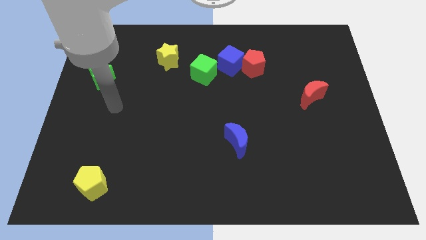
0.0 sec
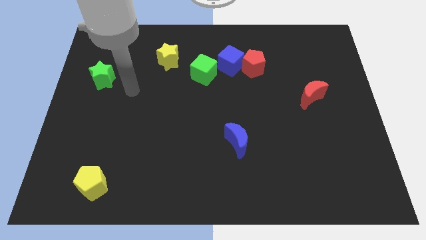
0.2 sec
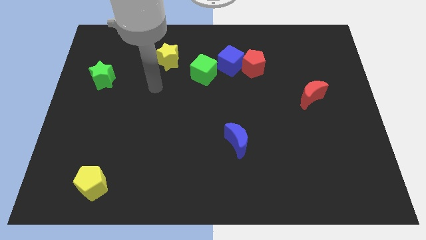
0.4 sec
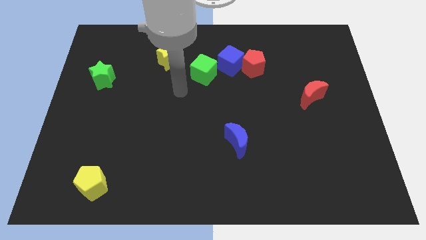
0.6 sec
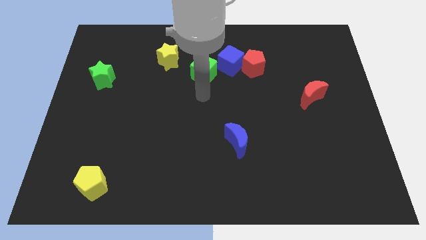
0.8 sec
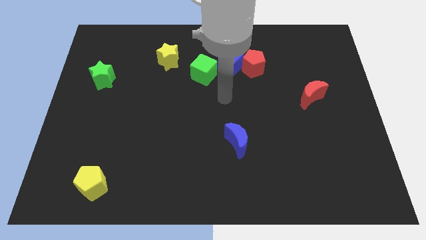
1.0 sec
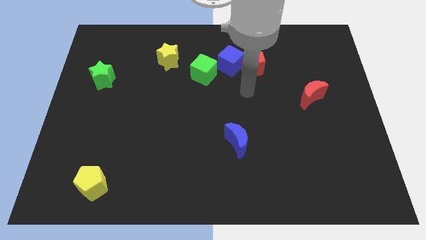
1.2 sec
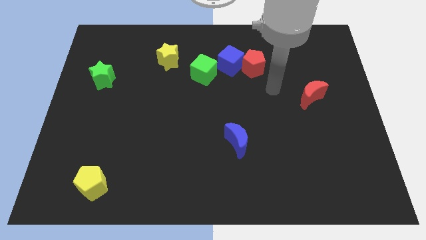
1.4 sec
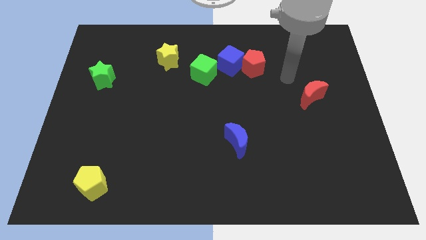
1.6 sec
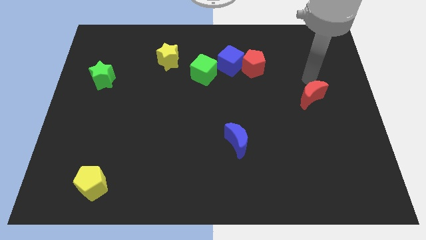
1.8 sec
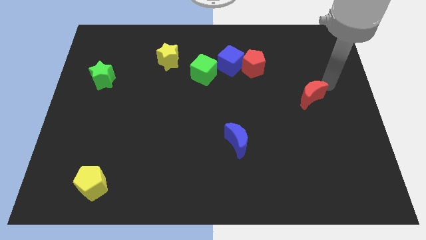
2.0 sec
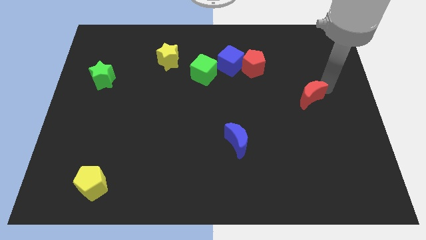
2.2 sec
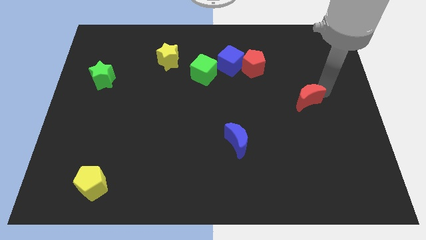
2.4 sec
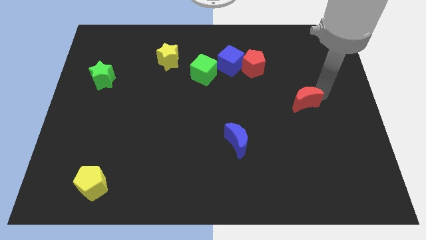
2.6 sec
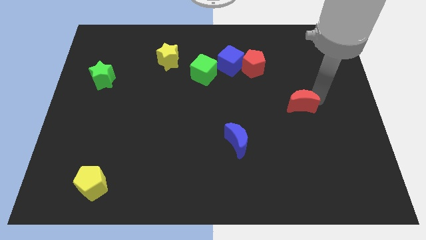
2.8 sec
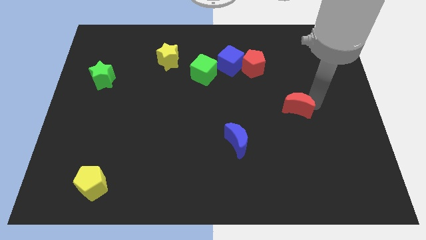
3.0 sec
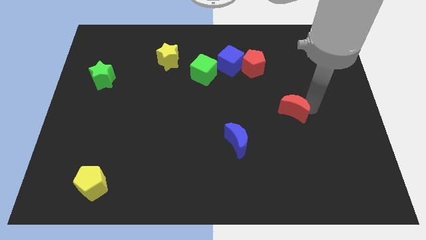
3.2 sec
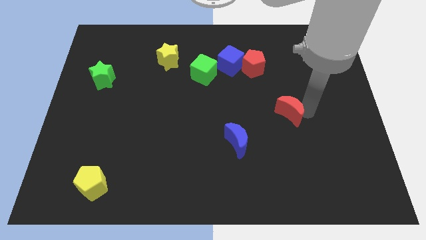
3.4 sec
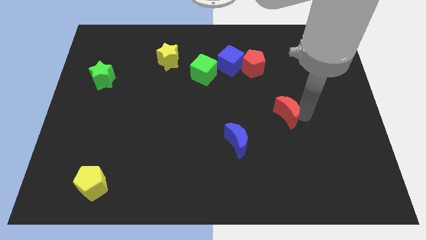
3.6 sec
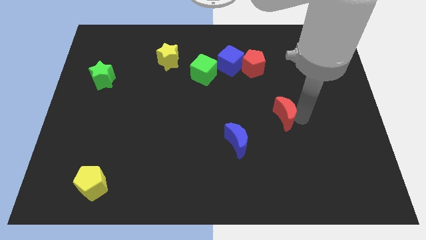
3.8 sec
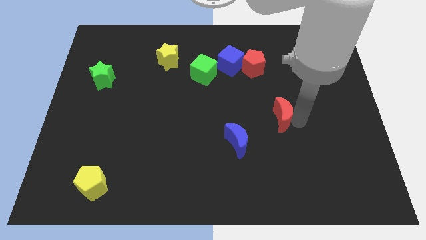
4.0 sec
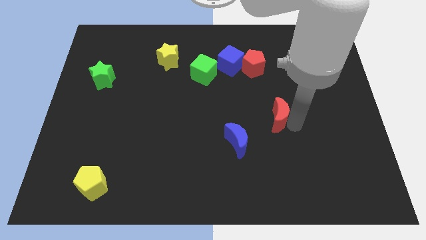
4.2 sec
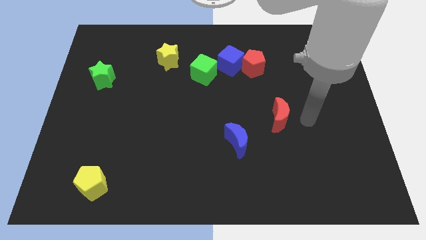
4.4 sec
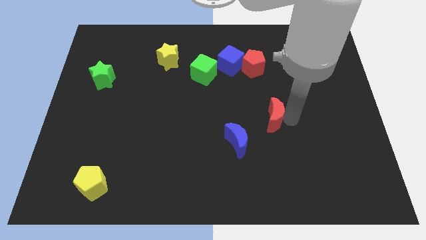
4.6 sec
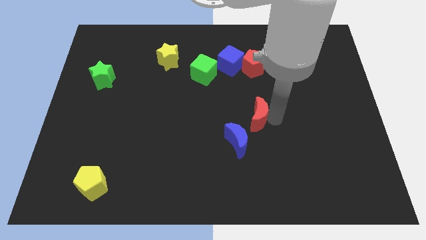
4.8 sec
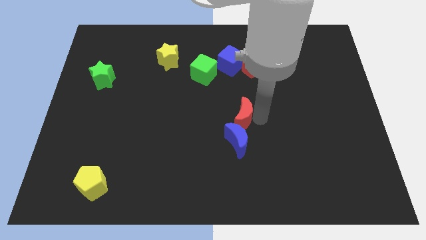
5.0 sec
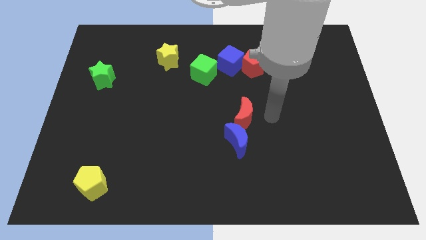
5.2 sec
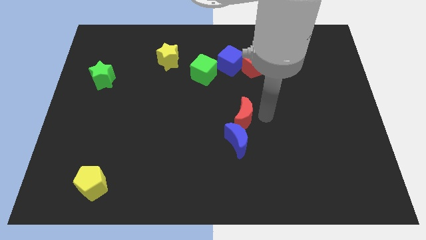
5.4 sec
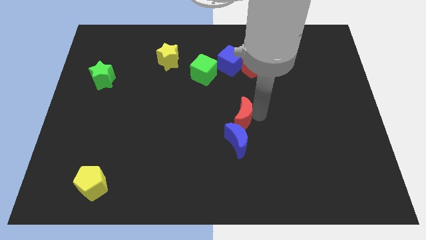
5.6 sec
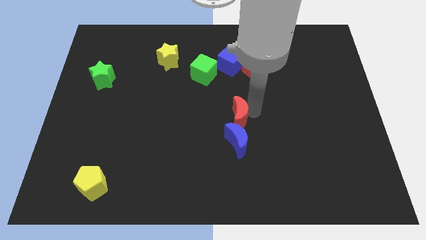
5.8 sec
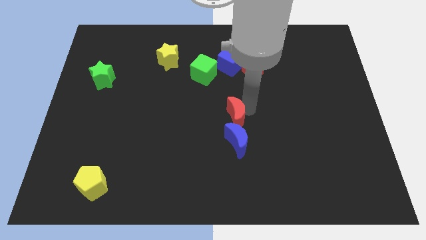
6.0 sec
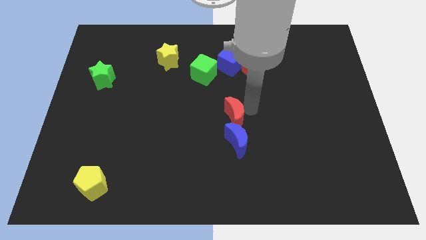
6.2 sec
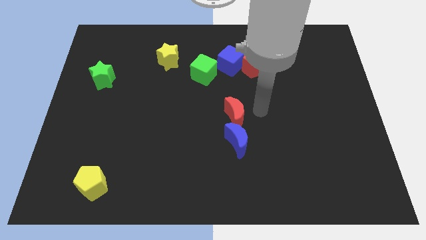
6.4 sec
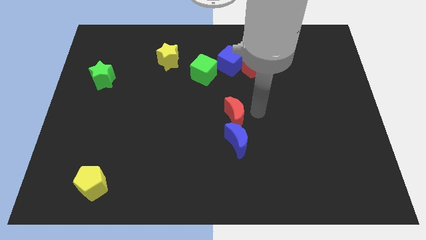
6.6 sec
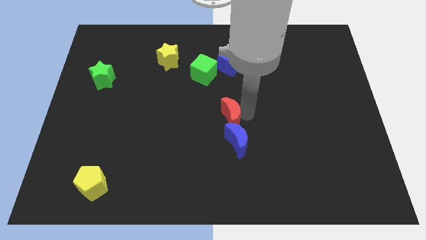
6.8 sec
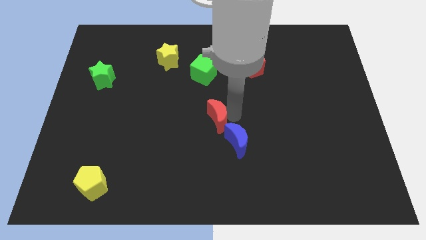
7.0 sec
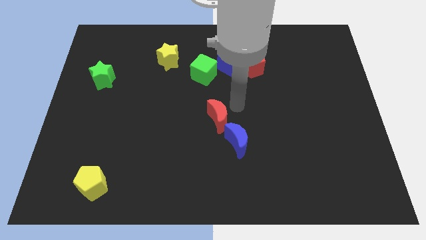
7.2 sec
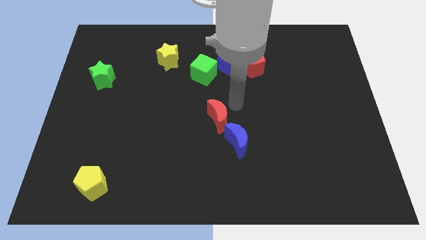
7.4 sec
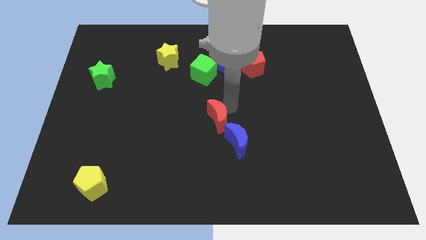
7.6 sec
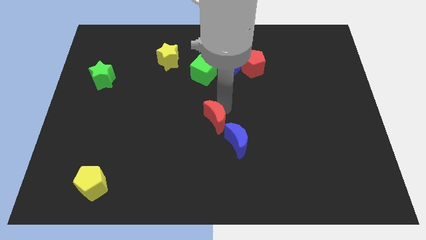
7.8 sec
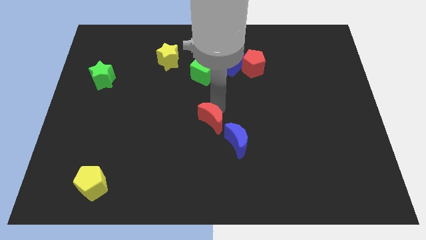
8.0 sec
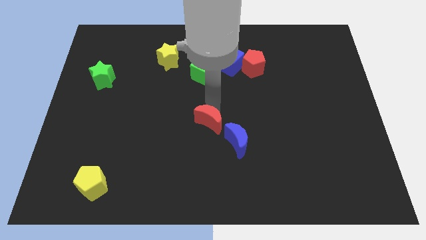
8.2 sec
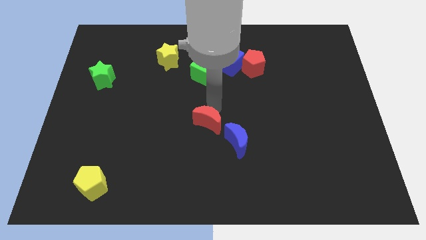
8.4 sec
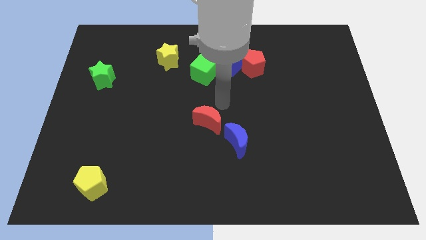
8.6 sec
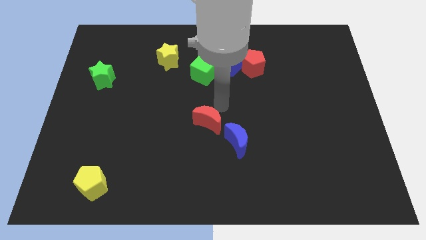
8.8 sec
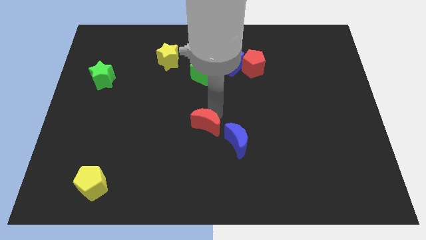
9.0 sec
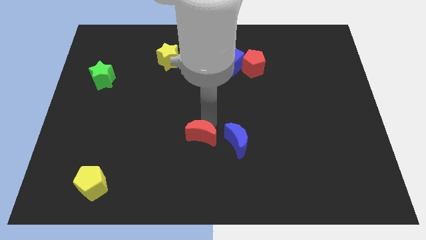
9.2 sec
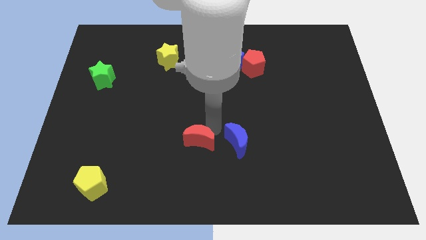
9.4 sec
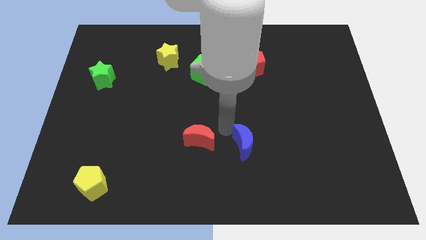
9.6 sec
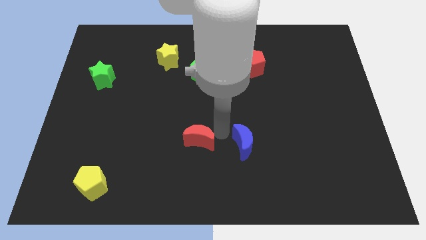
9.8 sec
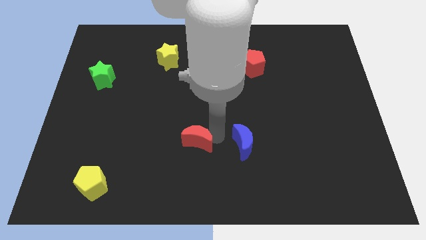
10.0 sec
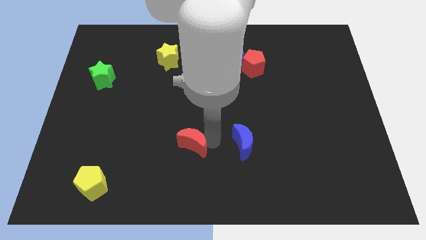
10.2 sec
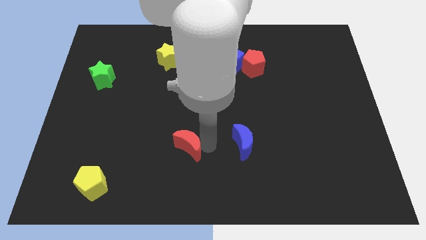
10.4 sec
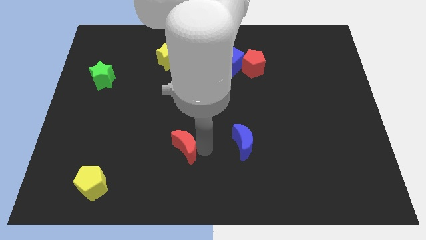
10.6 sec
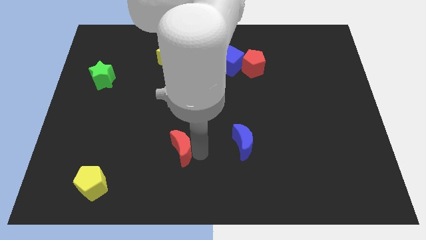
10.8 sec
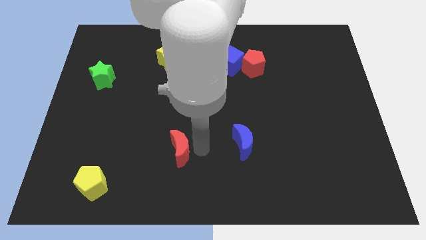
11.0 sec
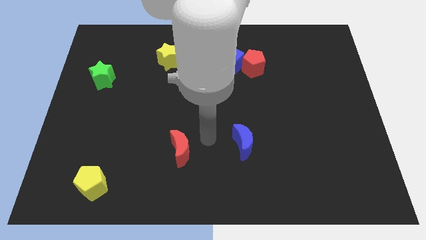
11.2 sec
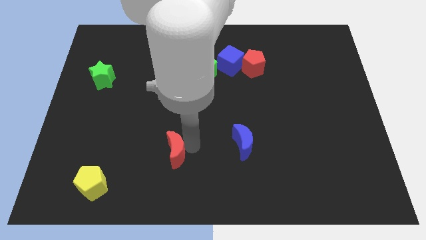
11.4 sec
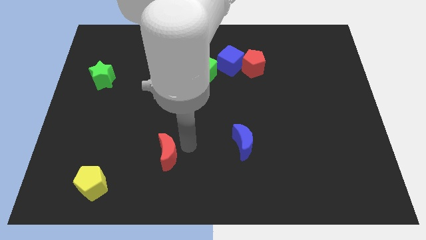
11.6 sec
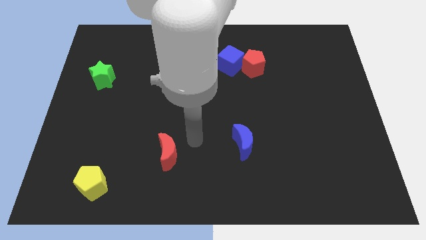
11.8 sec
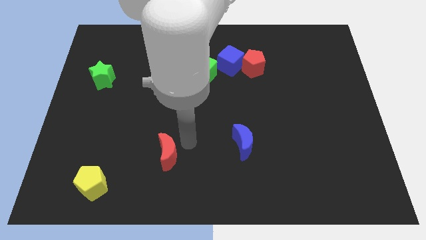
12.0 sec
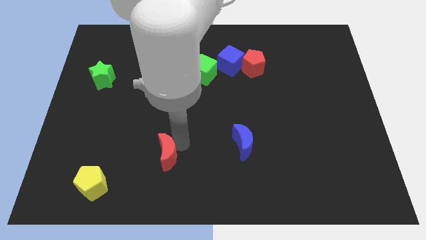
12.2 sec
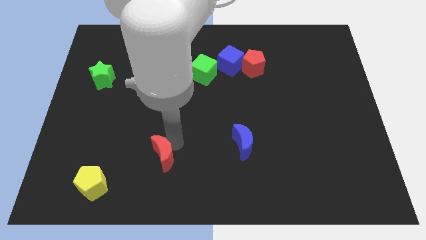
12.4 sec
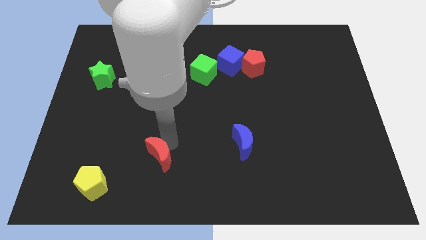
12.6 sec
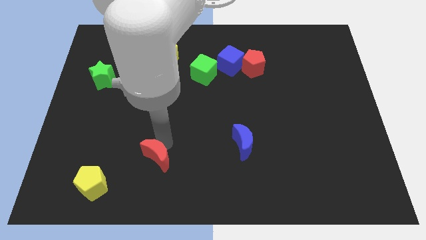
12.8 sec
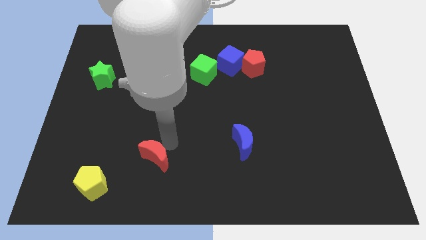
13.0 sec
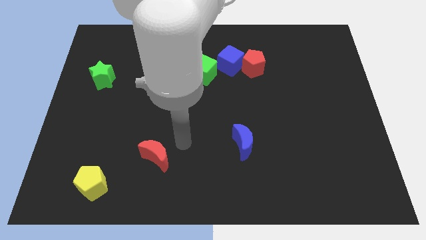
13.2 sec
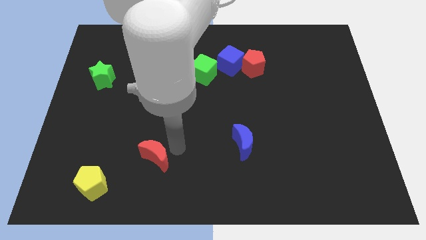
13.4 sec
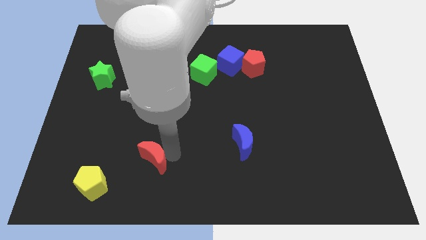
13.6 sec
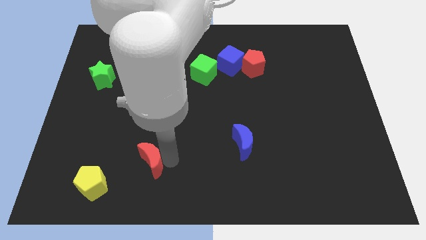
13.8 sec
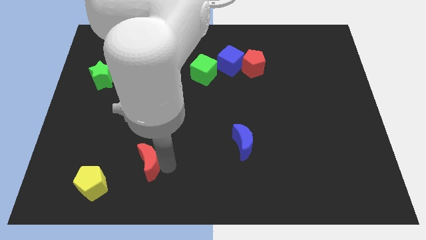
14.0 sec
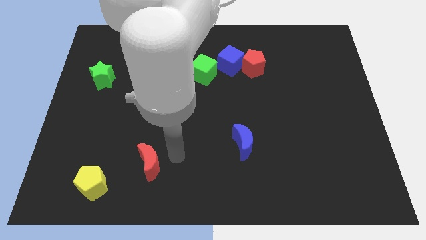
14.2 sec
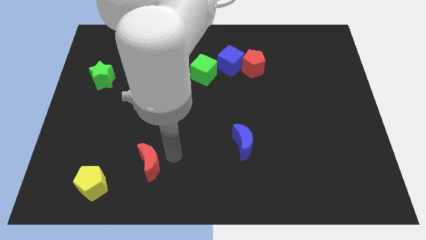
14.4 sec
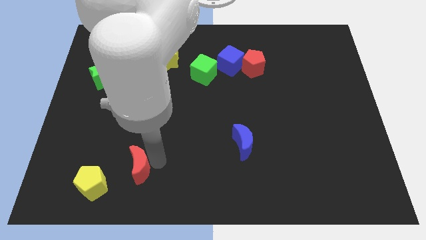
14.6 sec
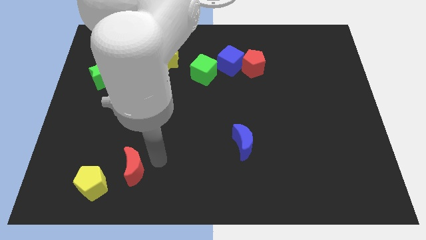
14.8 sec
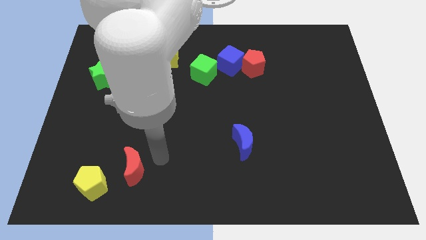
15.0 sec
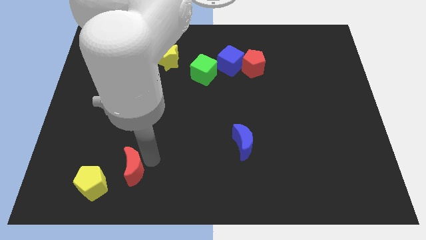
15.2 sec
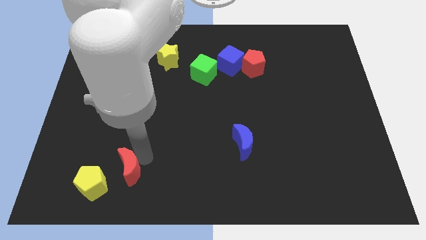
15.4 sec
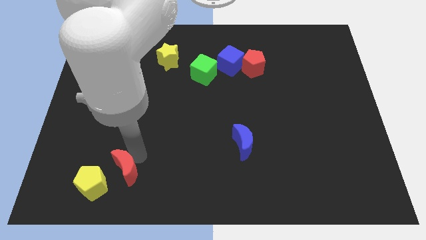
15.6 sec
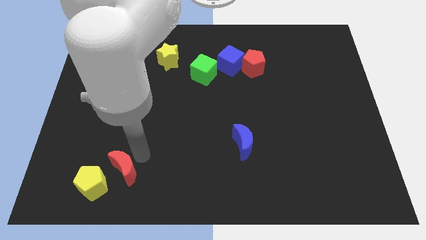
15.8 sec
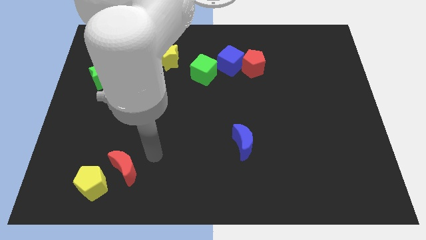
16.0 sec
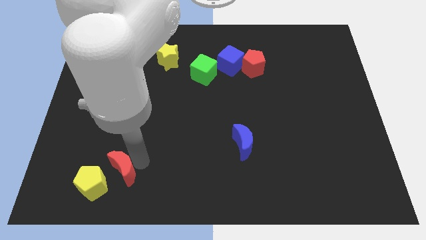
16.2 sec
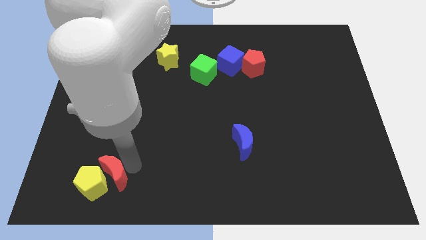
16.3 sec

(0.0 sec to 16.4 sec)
push the red moon next to the yellow pentagon
